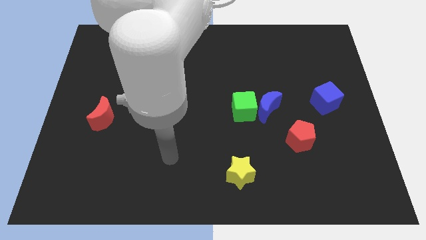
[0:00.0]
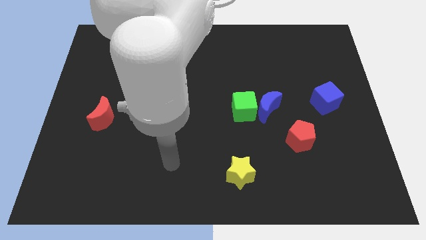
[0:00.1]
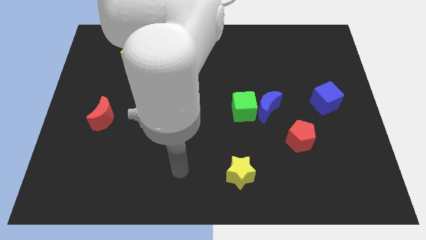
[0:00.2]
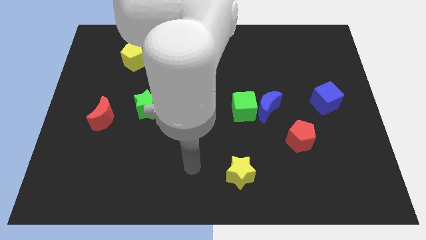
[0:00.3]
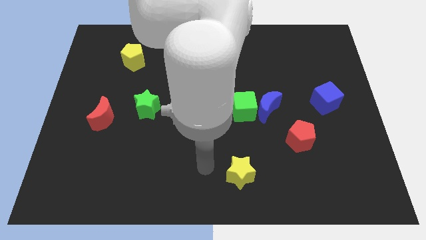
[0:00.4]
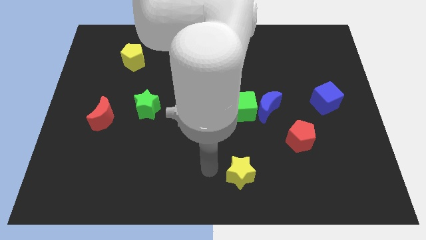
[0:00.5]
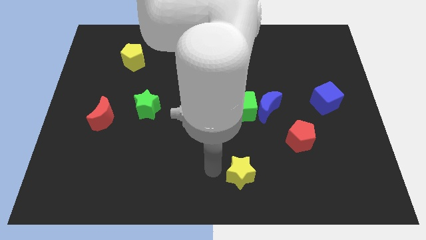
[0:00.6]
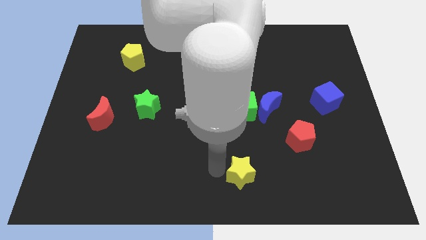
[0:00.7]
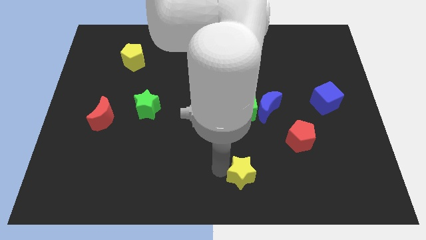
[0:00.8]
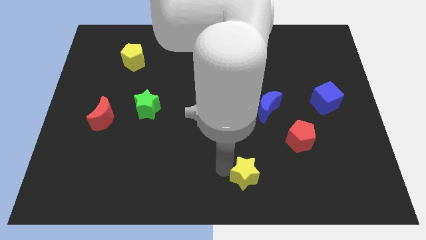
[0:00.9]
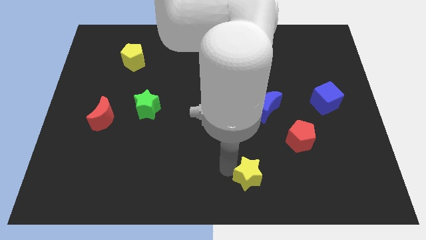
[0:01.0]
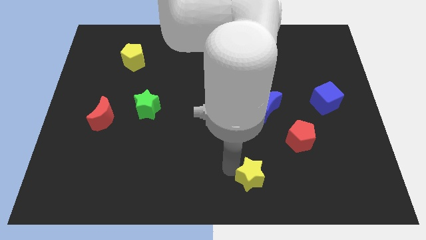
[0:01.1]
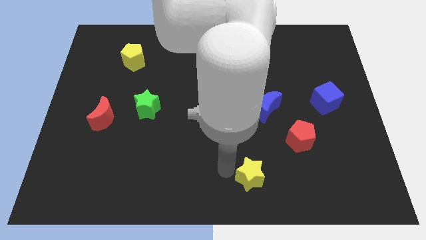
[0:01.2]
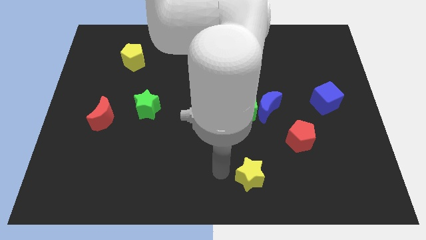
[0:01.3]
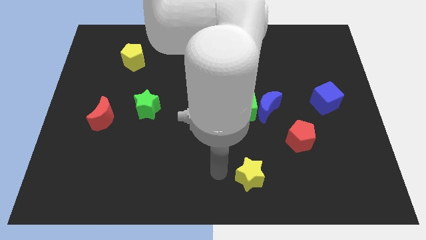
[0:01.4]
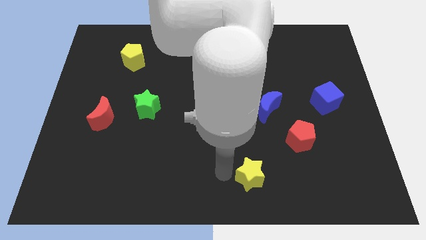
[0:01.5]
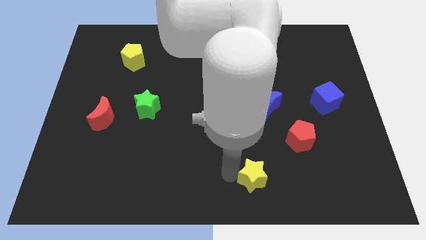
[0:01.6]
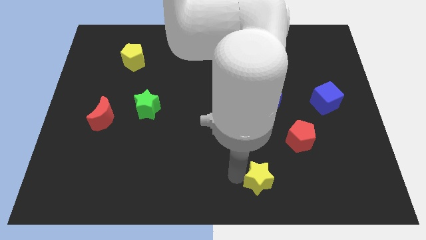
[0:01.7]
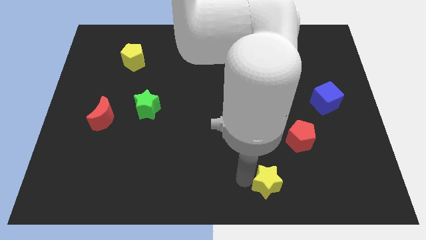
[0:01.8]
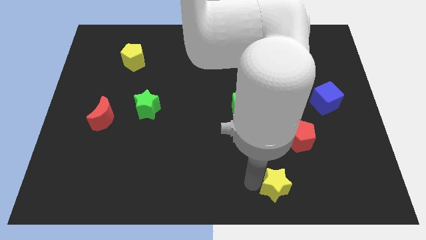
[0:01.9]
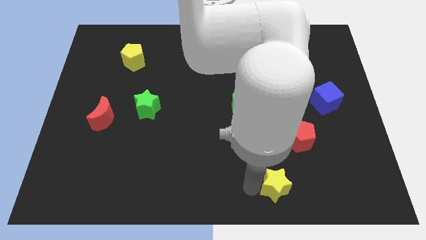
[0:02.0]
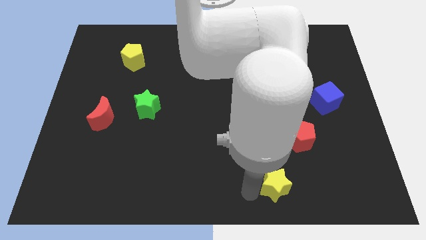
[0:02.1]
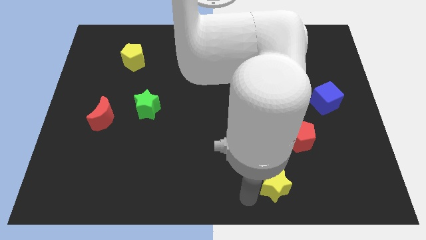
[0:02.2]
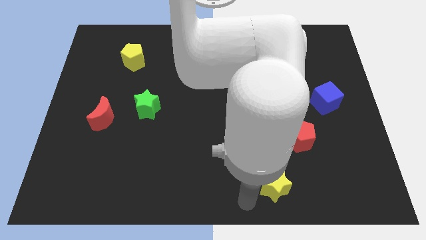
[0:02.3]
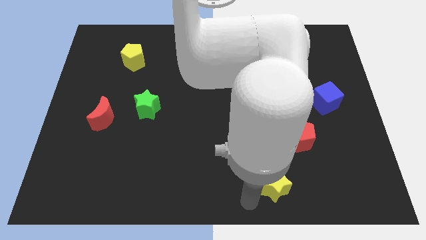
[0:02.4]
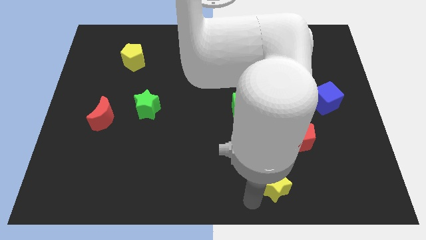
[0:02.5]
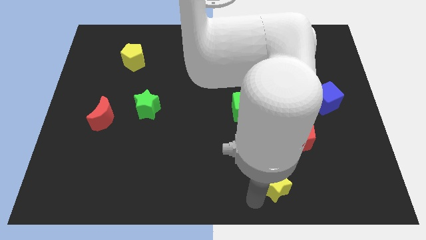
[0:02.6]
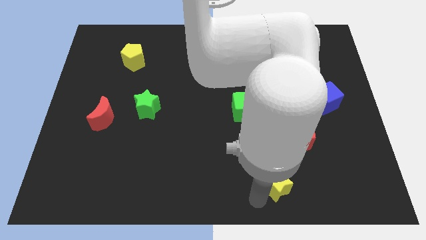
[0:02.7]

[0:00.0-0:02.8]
move the yellow star somewhat to the right

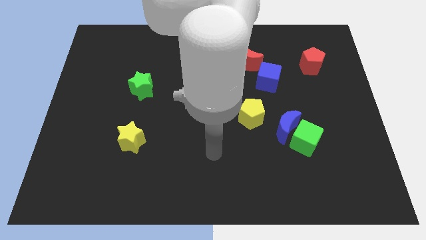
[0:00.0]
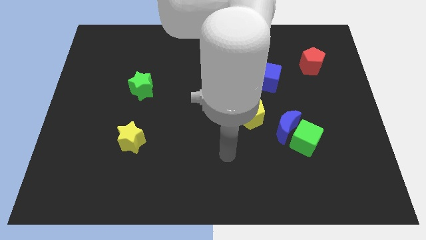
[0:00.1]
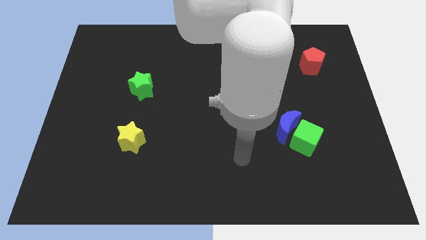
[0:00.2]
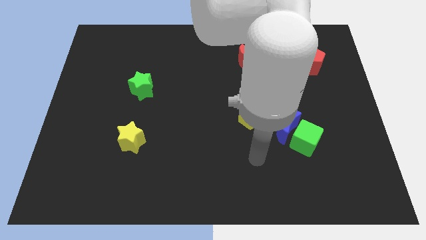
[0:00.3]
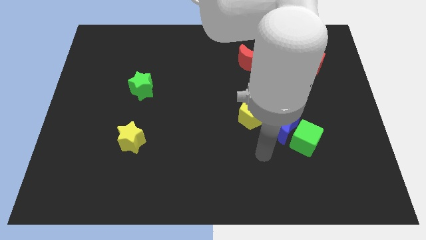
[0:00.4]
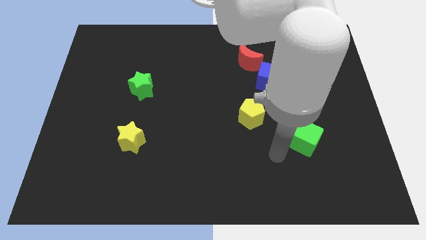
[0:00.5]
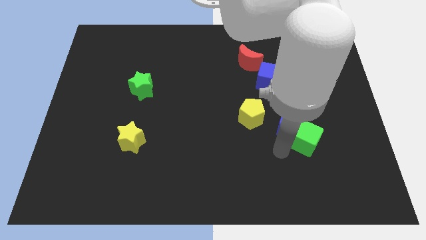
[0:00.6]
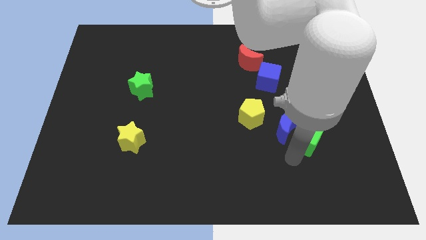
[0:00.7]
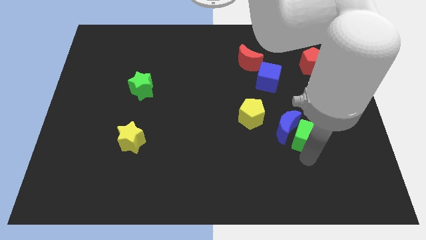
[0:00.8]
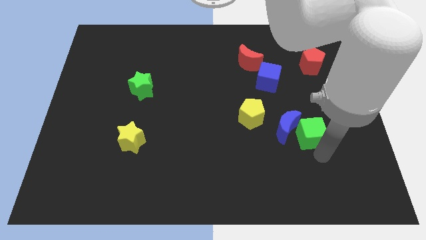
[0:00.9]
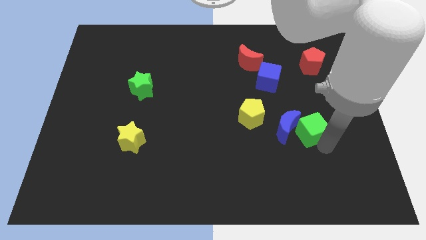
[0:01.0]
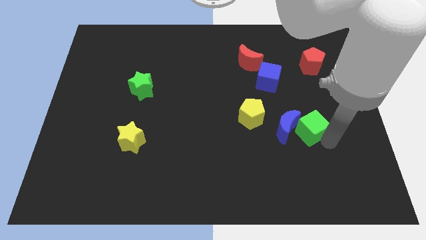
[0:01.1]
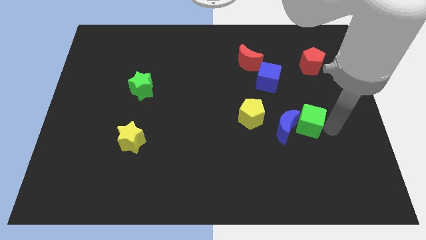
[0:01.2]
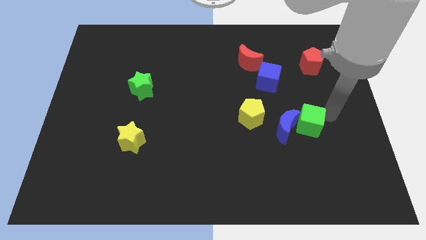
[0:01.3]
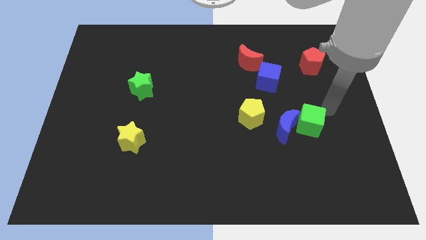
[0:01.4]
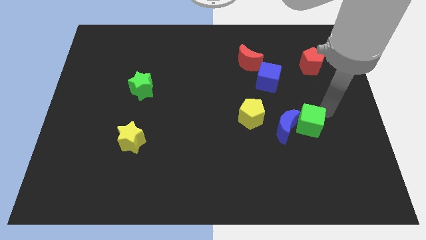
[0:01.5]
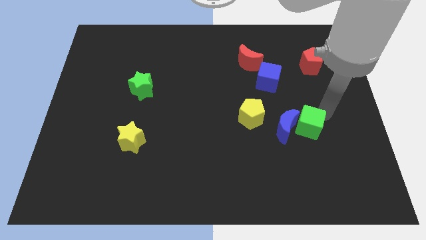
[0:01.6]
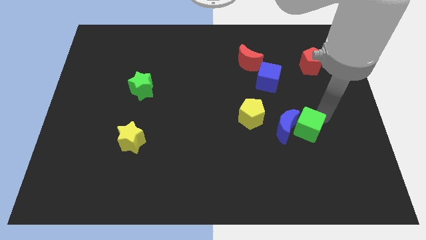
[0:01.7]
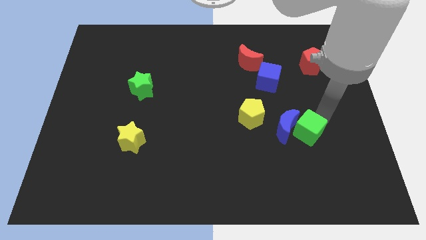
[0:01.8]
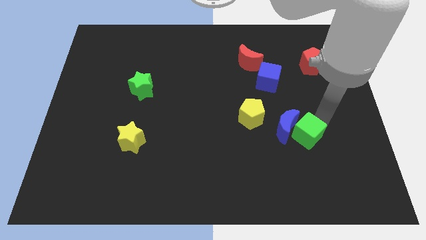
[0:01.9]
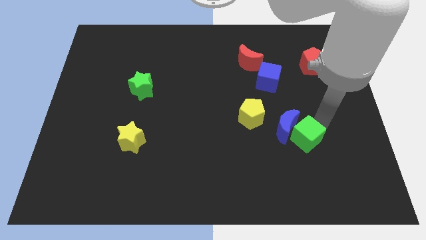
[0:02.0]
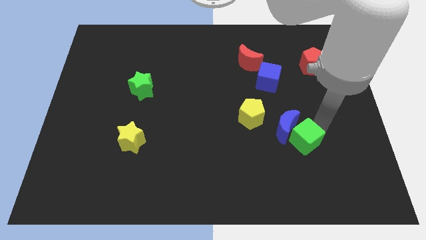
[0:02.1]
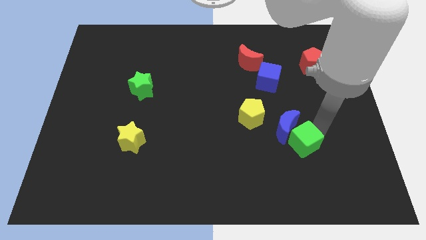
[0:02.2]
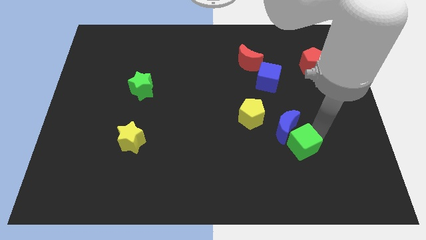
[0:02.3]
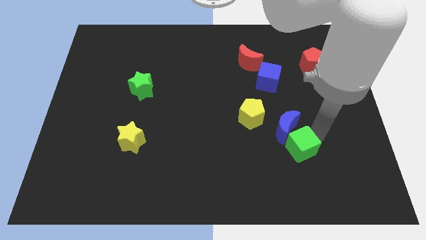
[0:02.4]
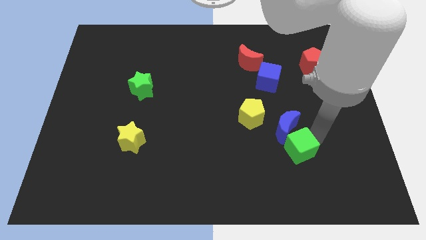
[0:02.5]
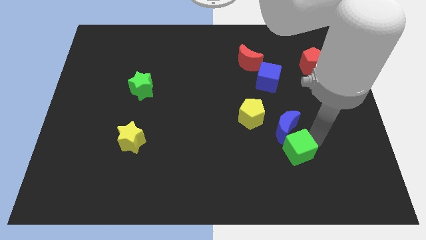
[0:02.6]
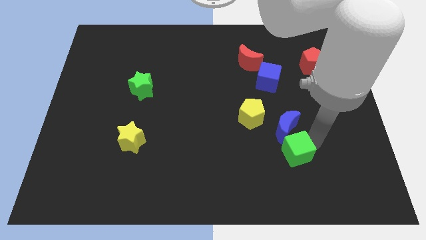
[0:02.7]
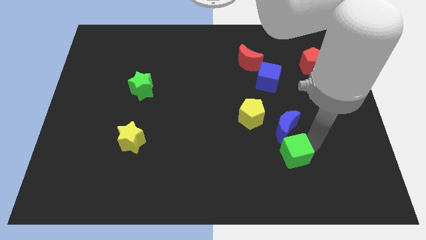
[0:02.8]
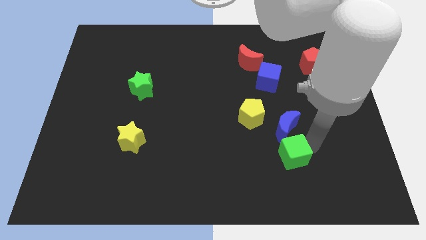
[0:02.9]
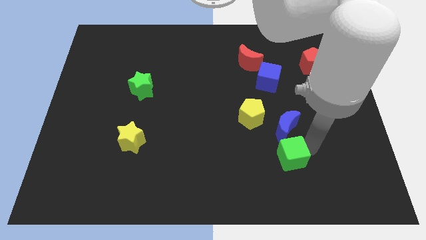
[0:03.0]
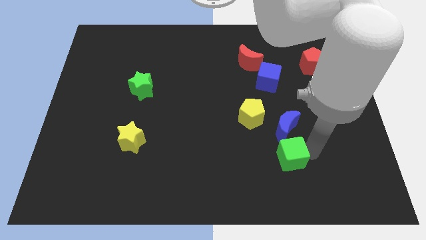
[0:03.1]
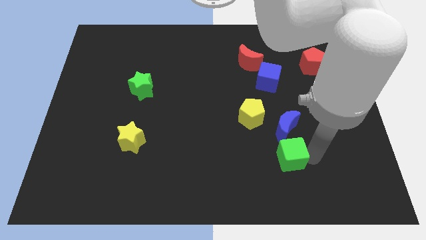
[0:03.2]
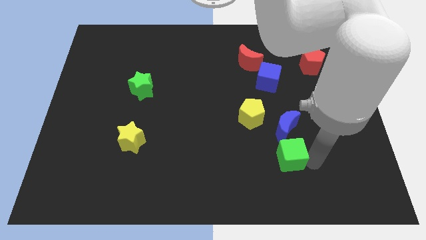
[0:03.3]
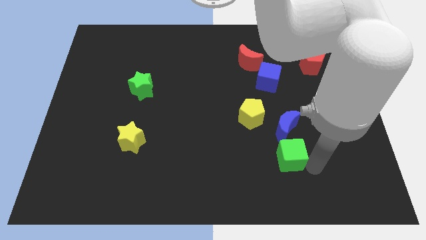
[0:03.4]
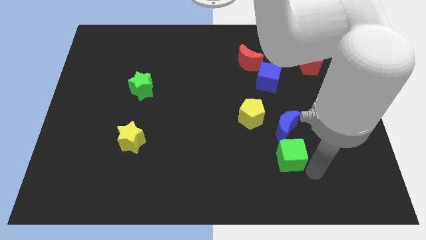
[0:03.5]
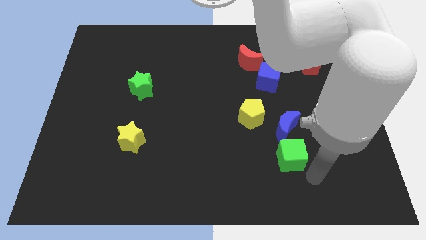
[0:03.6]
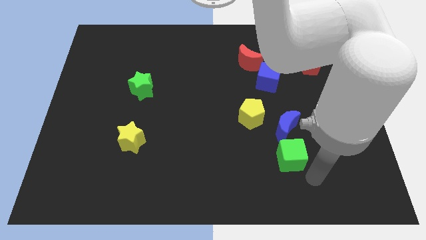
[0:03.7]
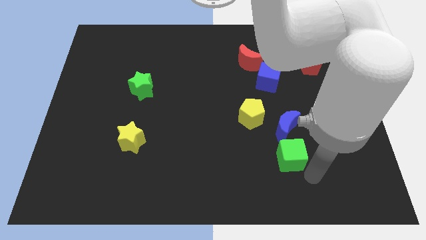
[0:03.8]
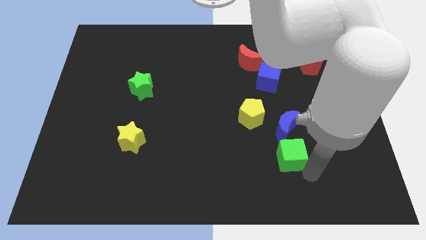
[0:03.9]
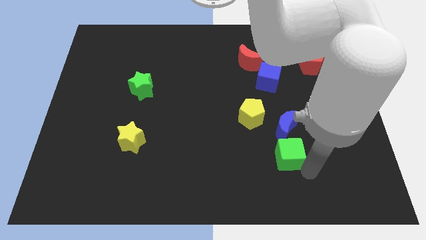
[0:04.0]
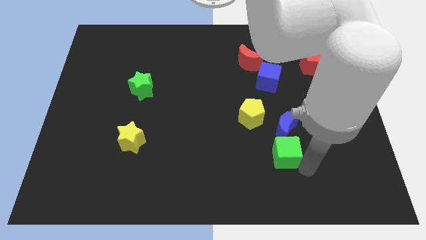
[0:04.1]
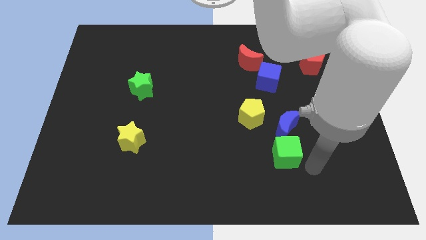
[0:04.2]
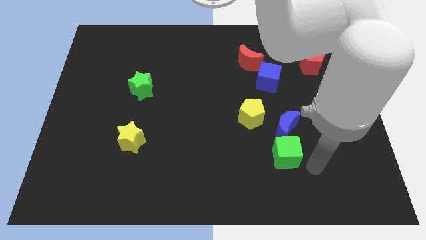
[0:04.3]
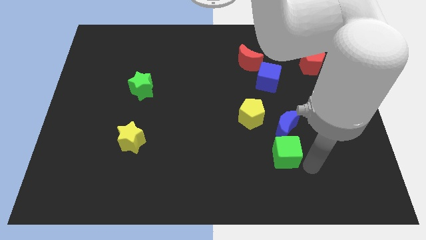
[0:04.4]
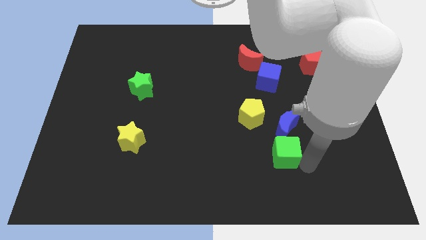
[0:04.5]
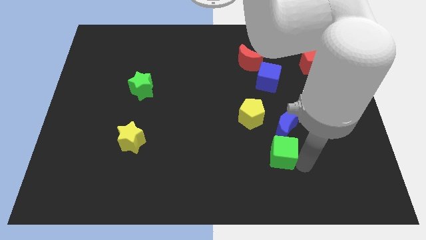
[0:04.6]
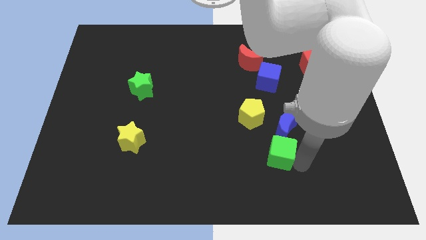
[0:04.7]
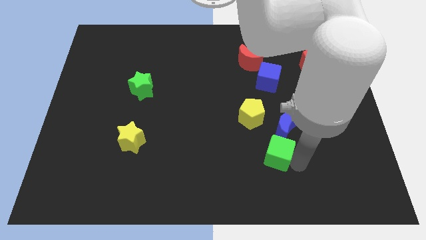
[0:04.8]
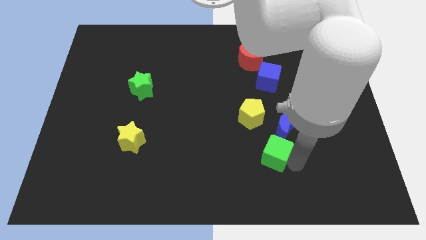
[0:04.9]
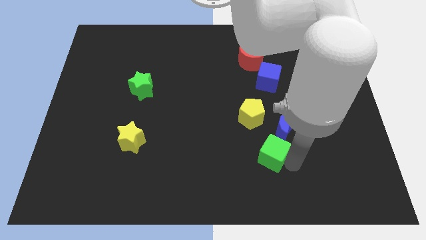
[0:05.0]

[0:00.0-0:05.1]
move the green cube a little bit to the left

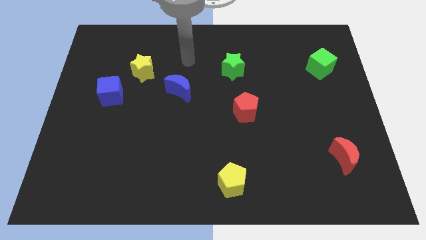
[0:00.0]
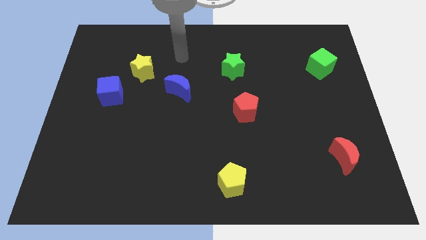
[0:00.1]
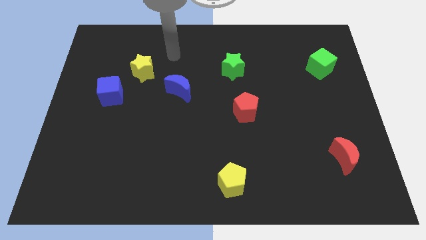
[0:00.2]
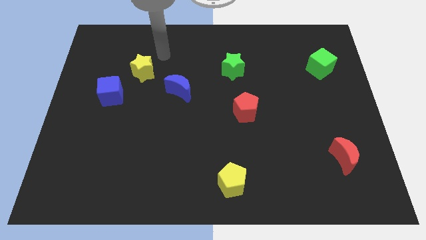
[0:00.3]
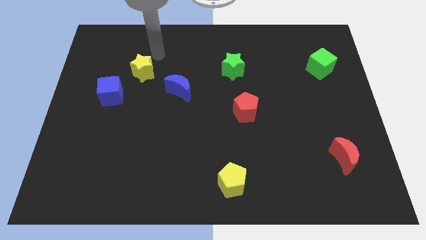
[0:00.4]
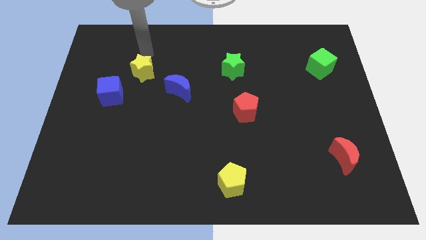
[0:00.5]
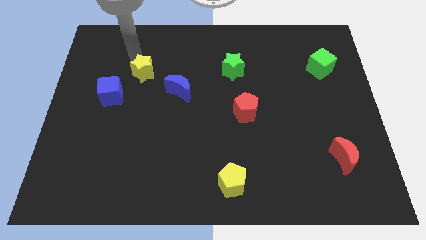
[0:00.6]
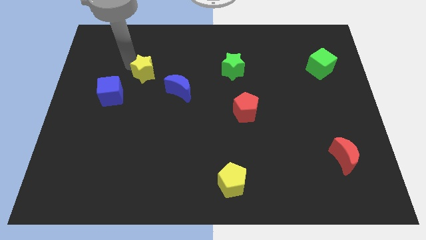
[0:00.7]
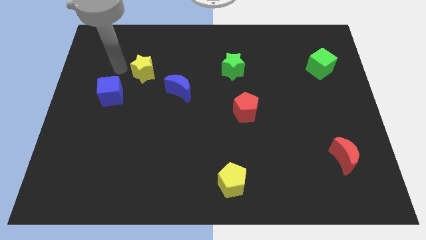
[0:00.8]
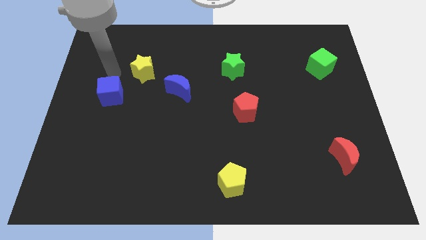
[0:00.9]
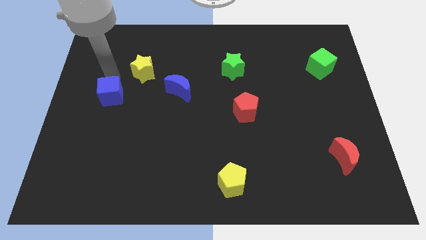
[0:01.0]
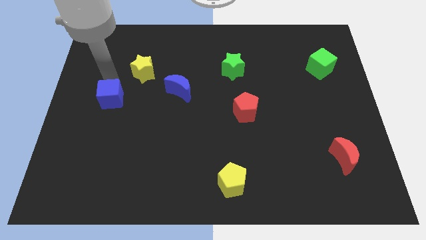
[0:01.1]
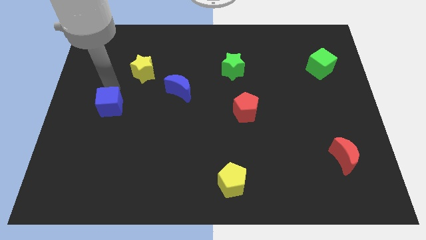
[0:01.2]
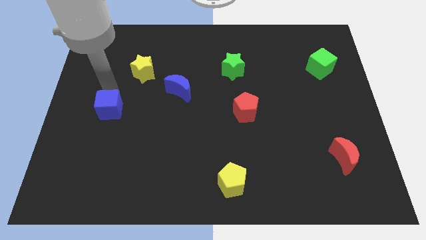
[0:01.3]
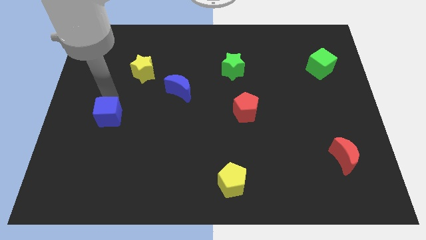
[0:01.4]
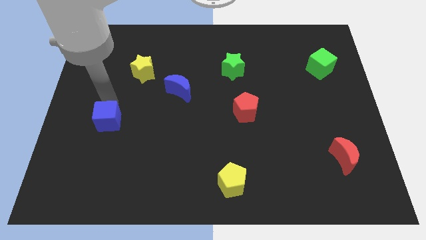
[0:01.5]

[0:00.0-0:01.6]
slide the blue cube somewhat downwards
